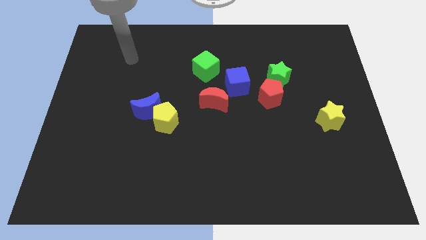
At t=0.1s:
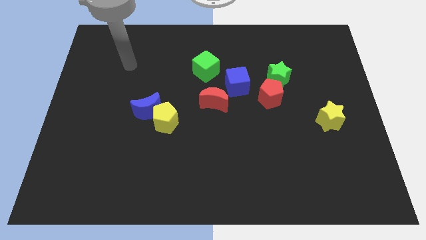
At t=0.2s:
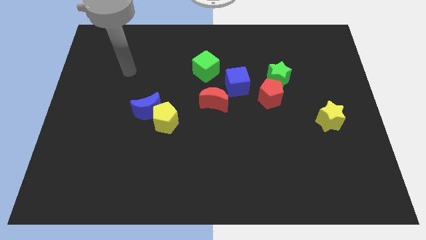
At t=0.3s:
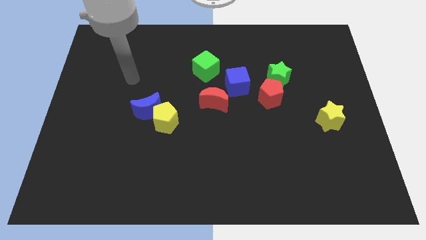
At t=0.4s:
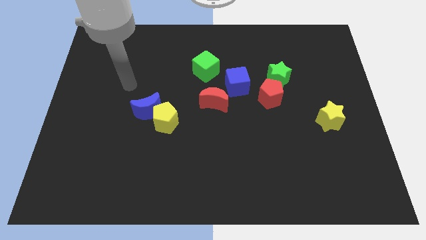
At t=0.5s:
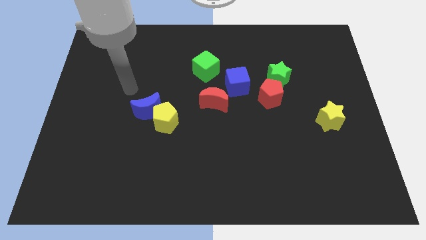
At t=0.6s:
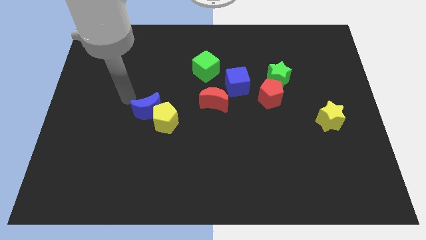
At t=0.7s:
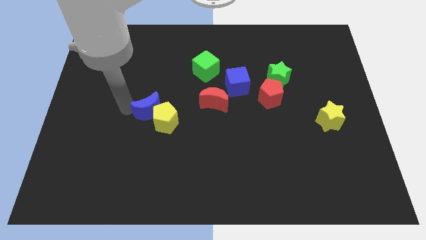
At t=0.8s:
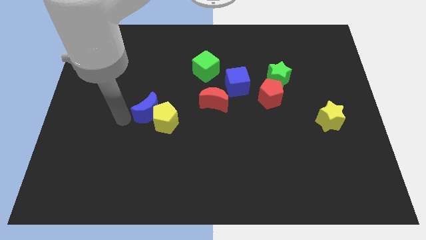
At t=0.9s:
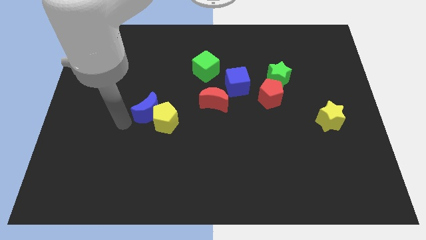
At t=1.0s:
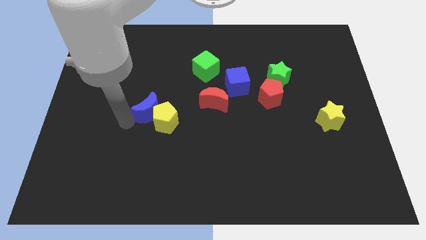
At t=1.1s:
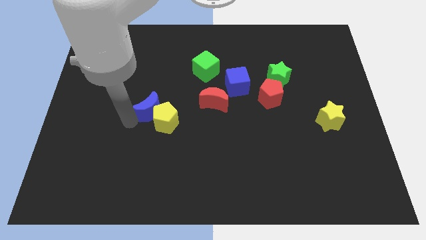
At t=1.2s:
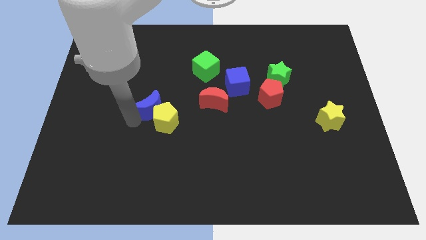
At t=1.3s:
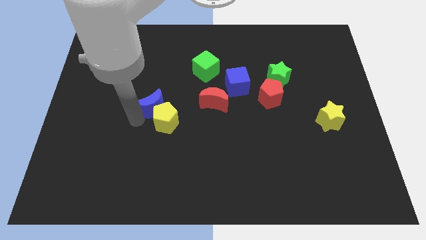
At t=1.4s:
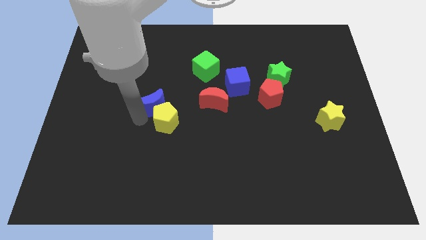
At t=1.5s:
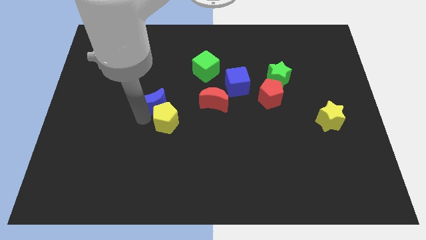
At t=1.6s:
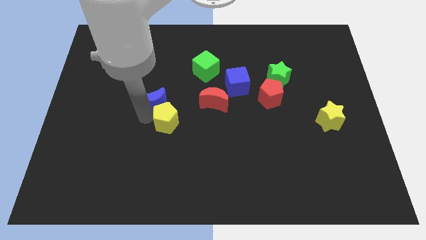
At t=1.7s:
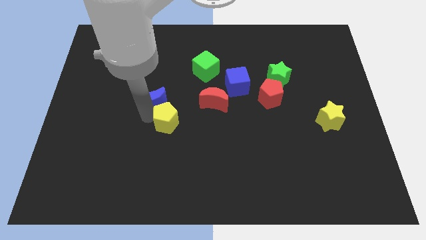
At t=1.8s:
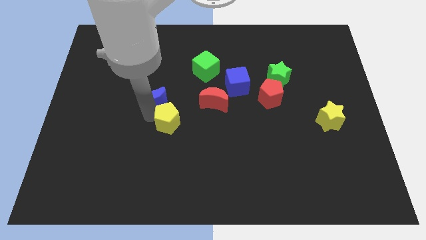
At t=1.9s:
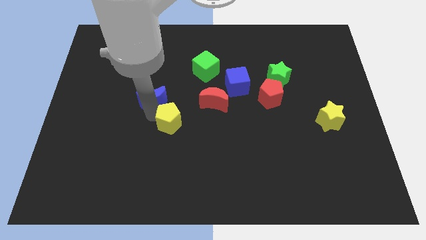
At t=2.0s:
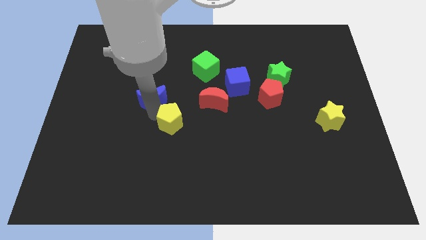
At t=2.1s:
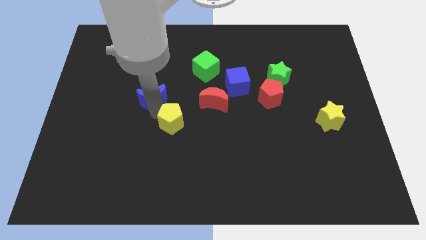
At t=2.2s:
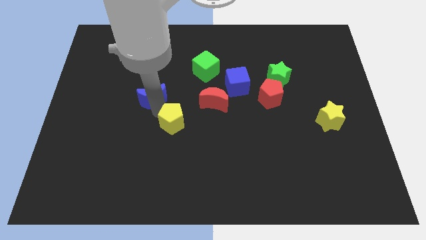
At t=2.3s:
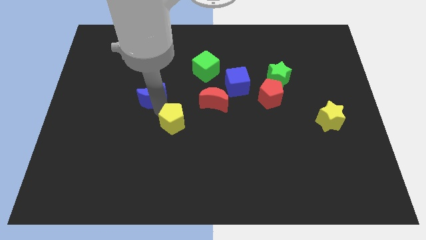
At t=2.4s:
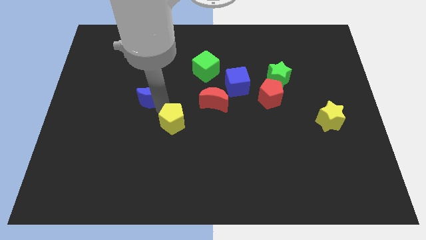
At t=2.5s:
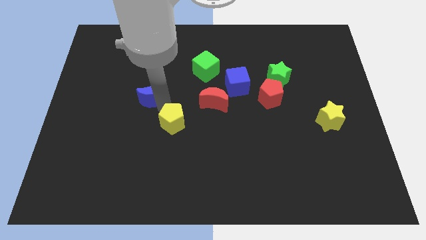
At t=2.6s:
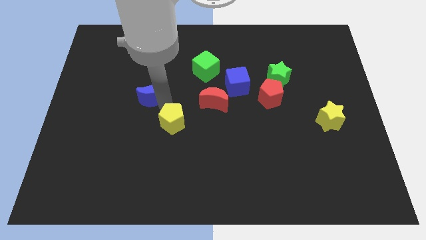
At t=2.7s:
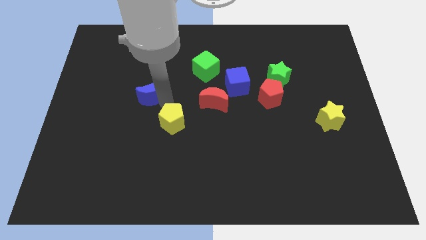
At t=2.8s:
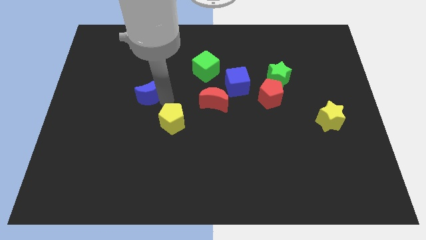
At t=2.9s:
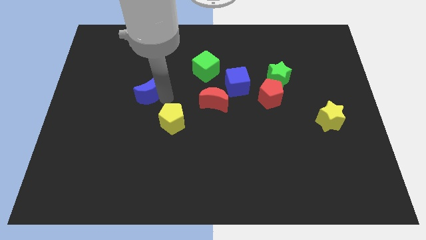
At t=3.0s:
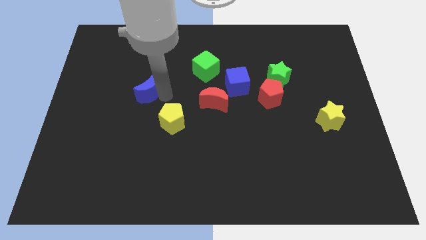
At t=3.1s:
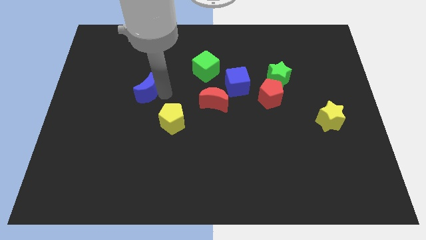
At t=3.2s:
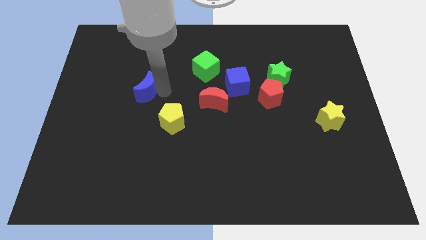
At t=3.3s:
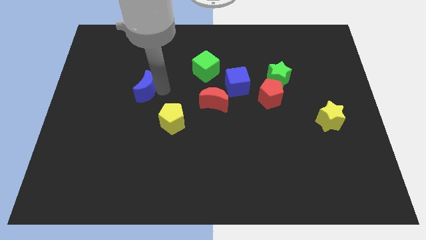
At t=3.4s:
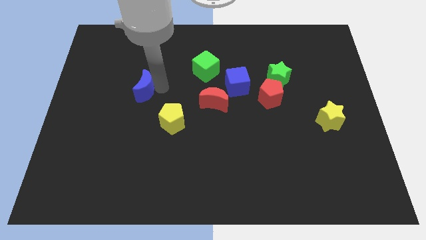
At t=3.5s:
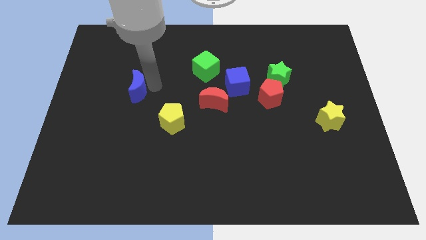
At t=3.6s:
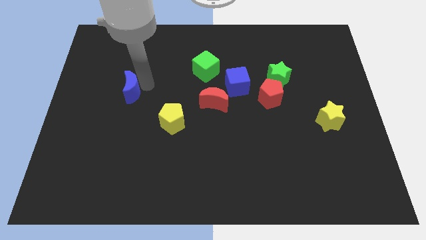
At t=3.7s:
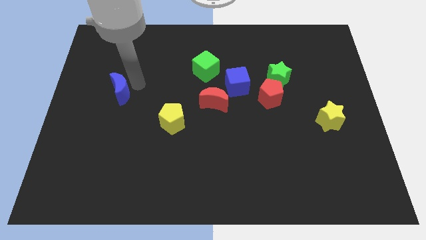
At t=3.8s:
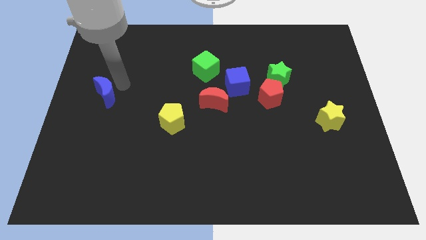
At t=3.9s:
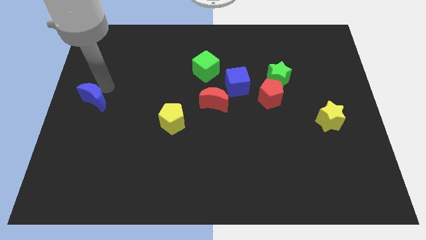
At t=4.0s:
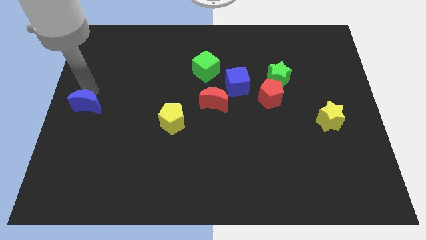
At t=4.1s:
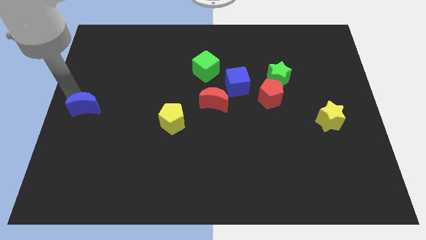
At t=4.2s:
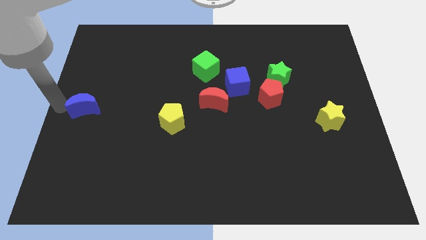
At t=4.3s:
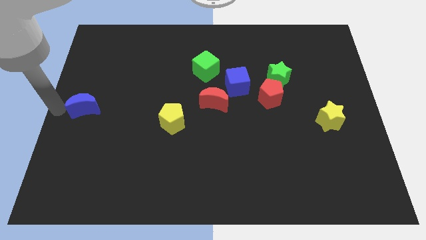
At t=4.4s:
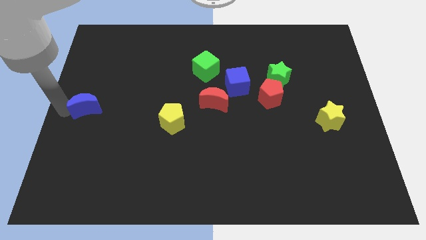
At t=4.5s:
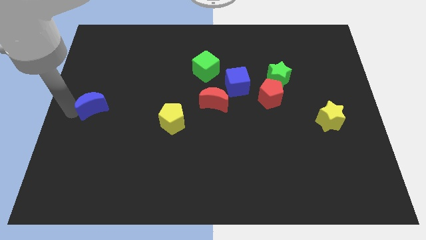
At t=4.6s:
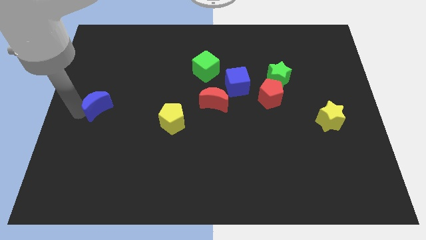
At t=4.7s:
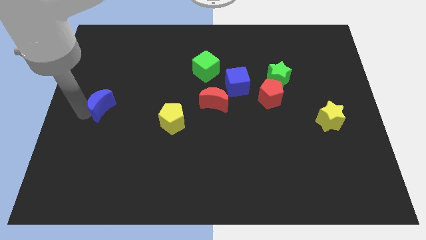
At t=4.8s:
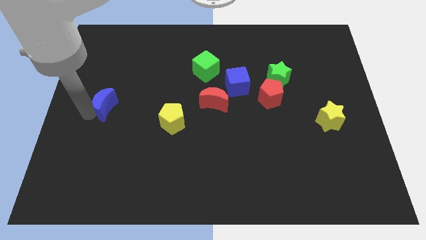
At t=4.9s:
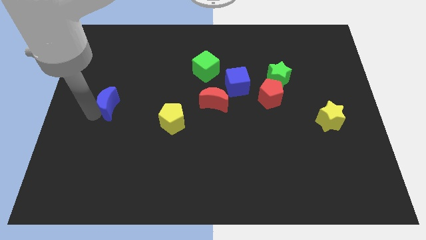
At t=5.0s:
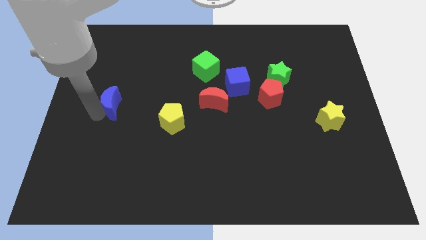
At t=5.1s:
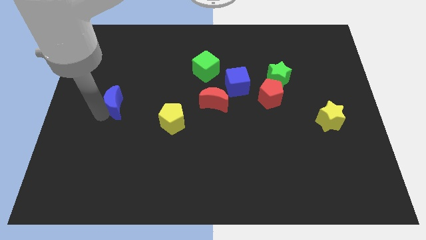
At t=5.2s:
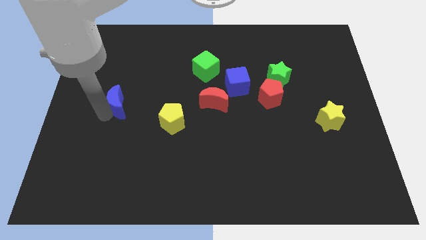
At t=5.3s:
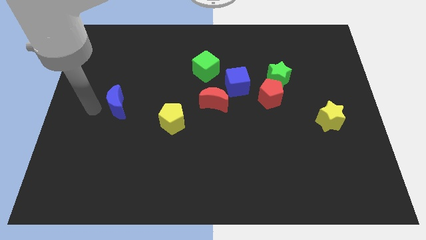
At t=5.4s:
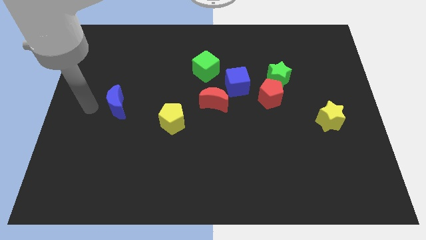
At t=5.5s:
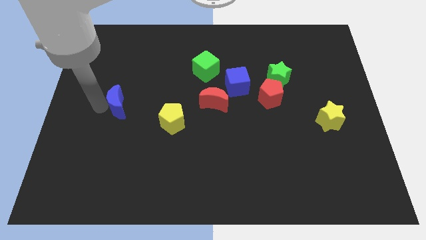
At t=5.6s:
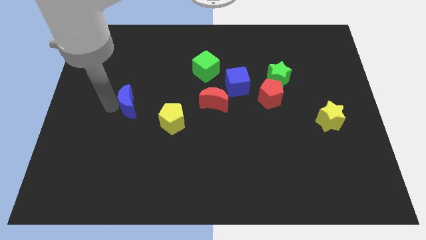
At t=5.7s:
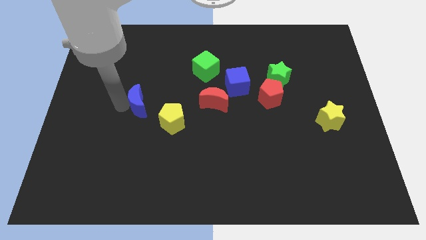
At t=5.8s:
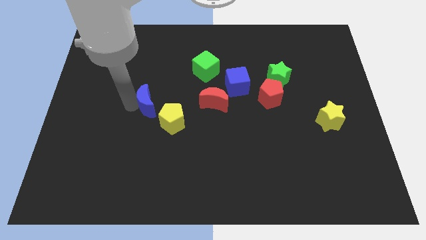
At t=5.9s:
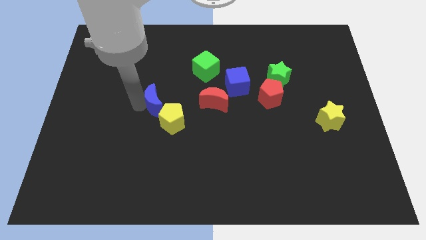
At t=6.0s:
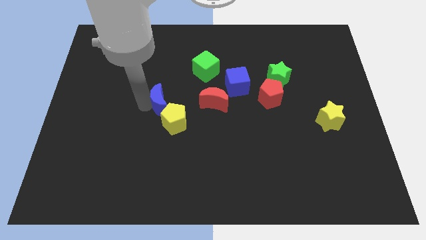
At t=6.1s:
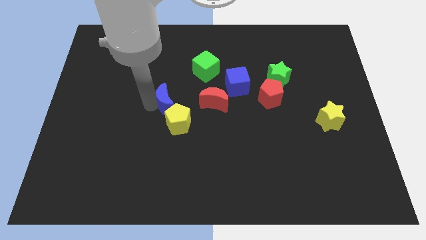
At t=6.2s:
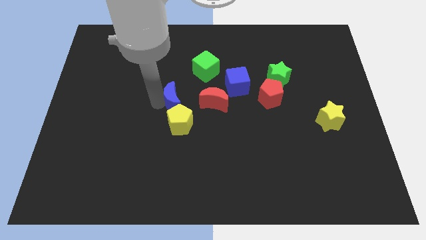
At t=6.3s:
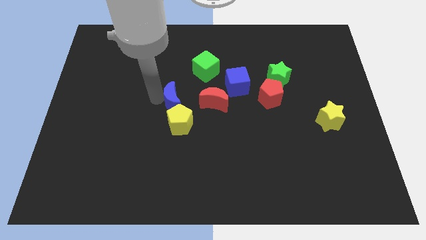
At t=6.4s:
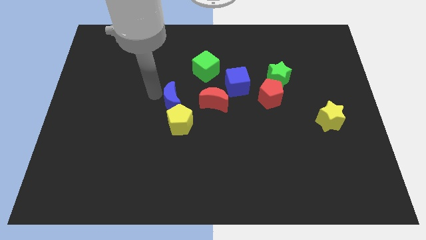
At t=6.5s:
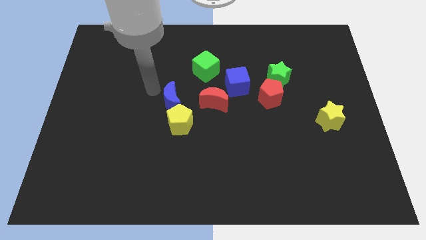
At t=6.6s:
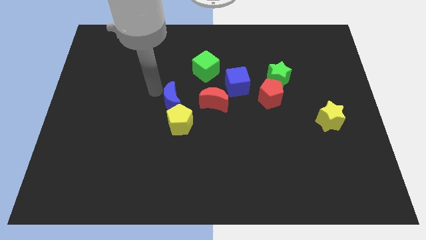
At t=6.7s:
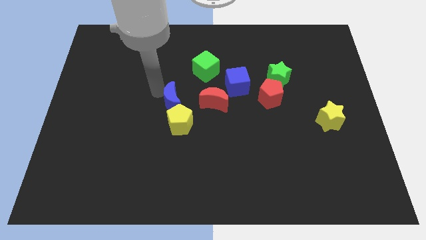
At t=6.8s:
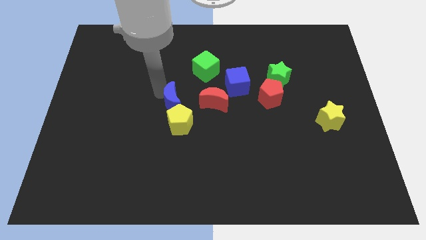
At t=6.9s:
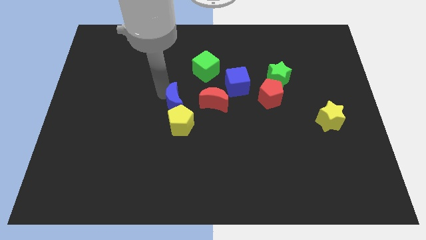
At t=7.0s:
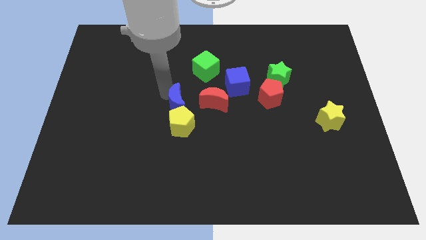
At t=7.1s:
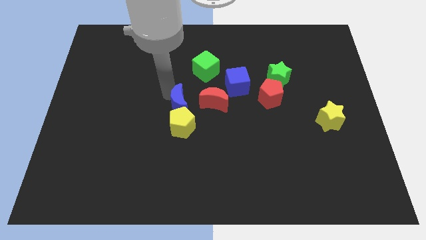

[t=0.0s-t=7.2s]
slide the blue moon right a little bit

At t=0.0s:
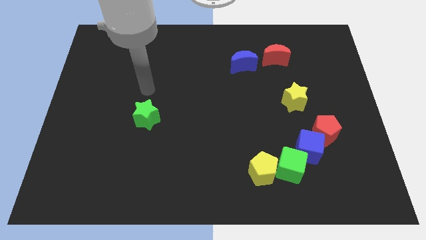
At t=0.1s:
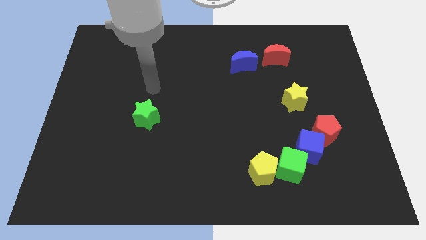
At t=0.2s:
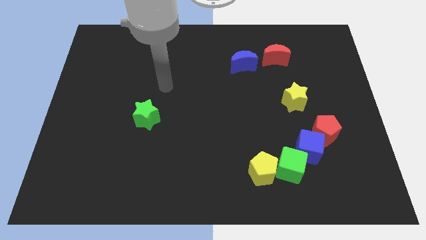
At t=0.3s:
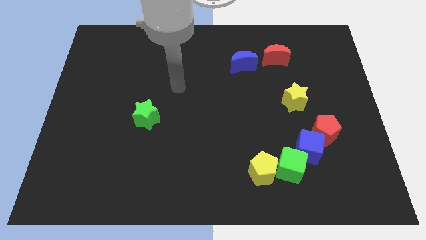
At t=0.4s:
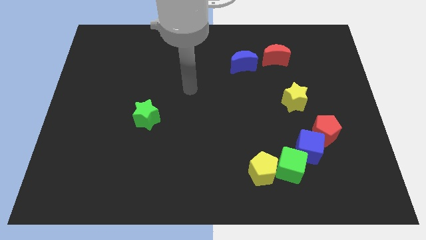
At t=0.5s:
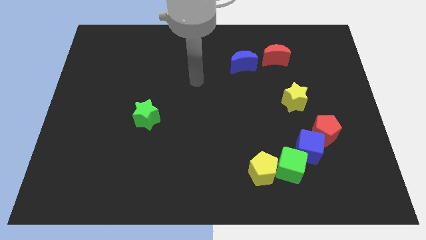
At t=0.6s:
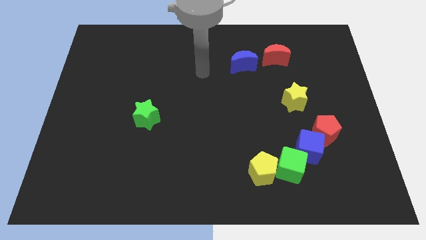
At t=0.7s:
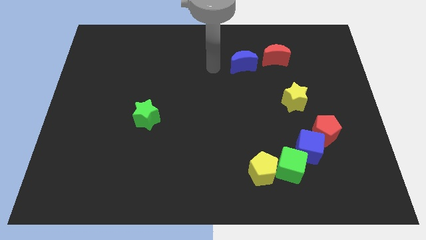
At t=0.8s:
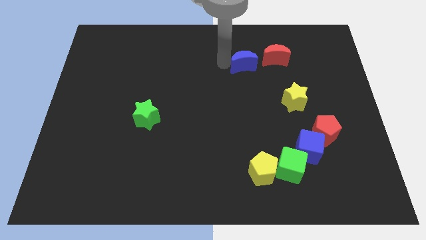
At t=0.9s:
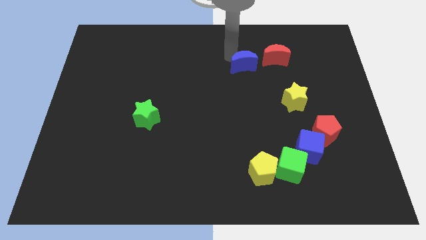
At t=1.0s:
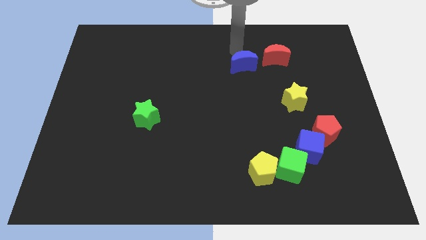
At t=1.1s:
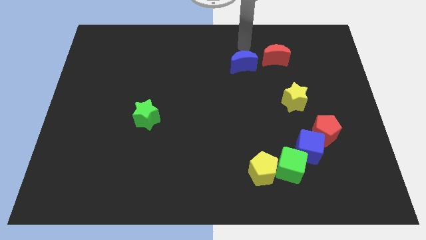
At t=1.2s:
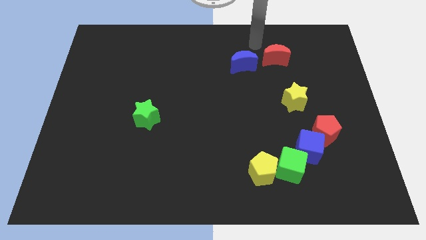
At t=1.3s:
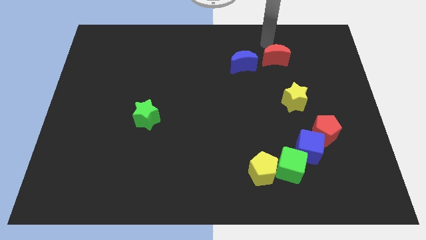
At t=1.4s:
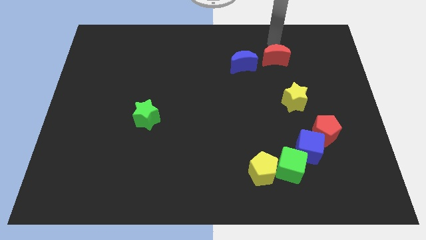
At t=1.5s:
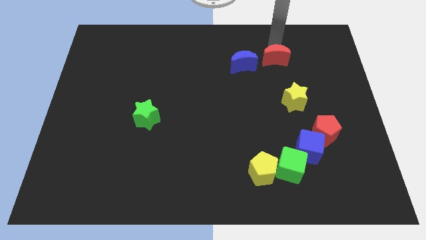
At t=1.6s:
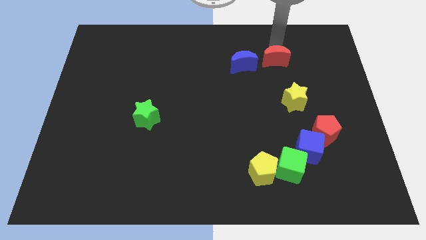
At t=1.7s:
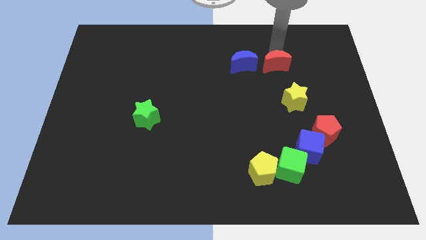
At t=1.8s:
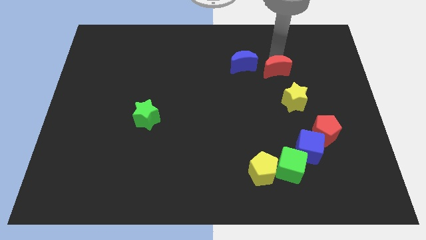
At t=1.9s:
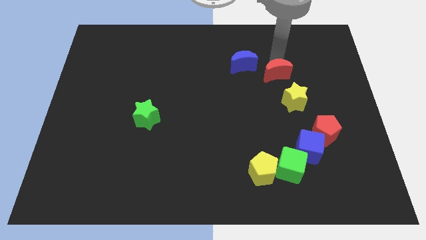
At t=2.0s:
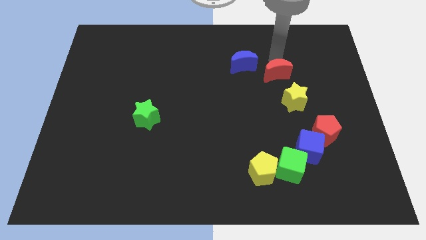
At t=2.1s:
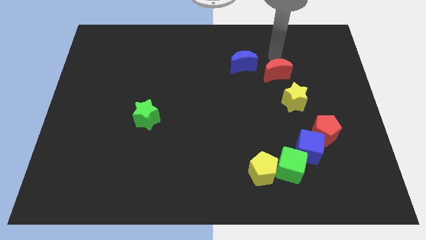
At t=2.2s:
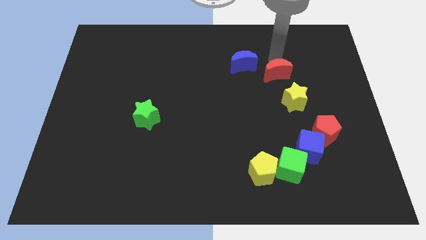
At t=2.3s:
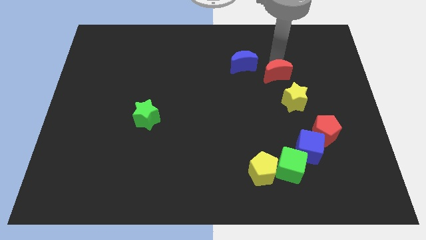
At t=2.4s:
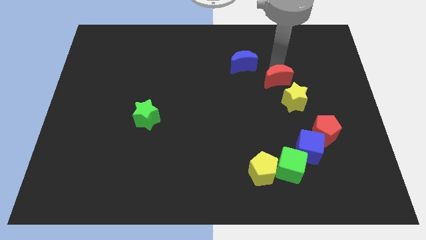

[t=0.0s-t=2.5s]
push the red moon downwards a little
